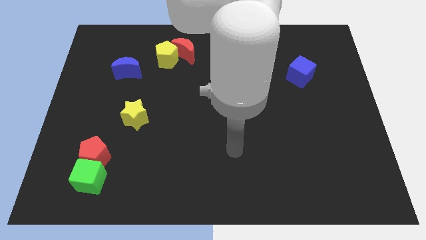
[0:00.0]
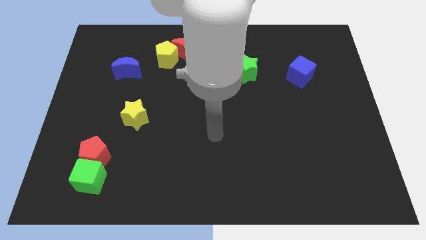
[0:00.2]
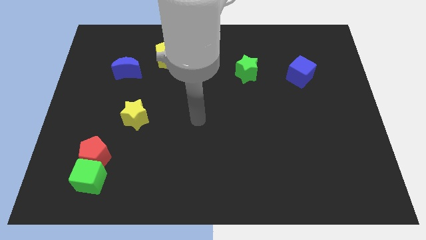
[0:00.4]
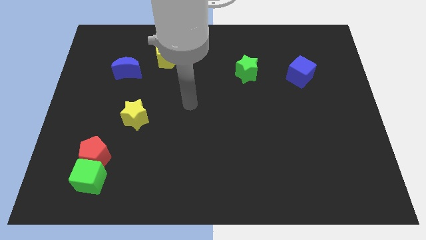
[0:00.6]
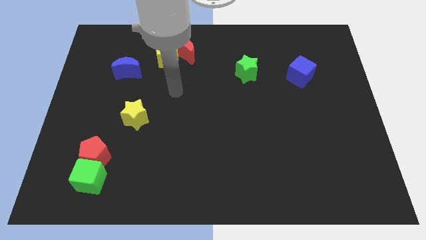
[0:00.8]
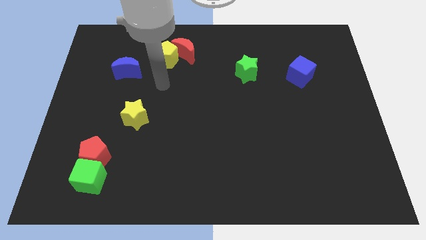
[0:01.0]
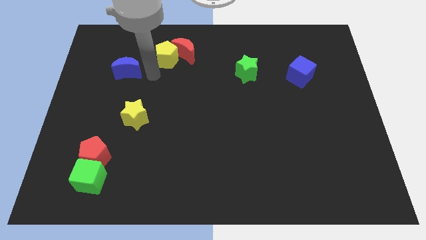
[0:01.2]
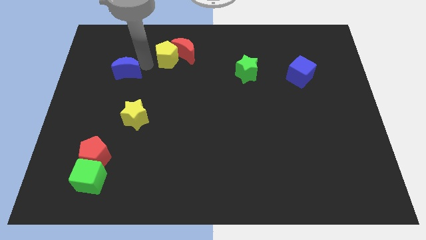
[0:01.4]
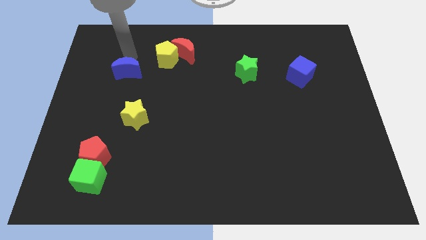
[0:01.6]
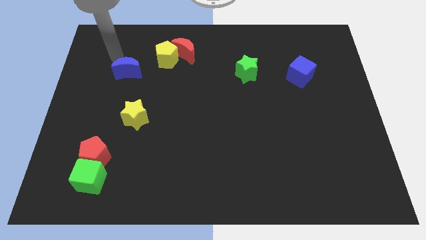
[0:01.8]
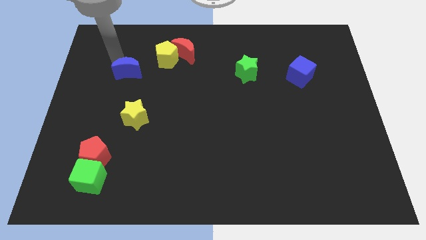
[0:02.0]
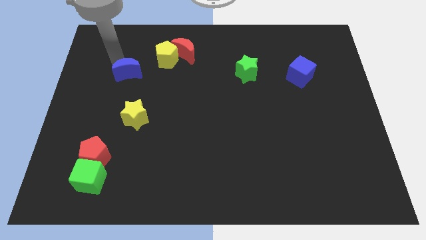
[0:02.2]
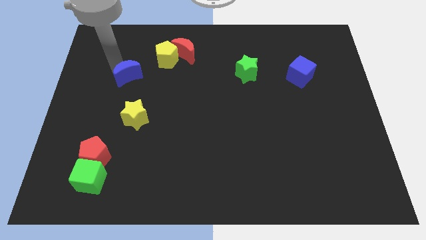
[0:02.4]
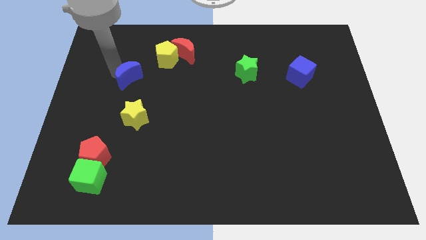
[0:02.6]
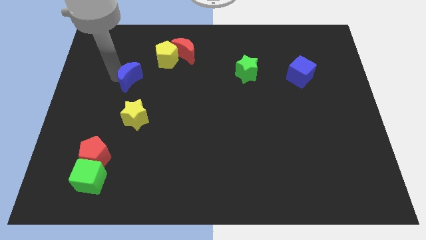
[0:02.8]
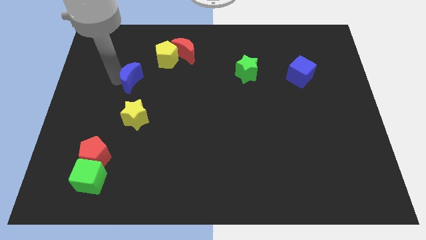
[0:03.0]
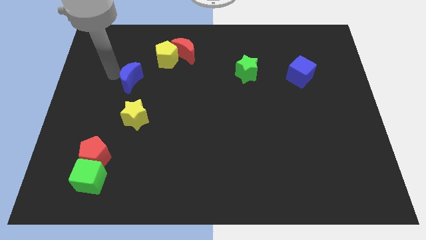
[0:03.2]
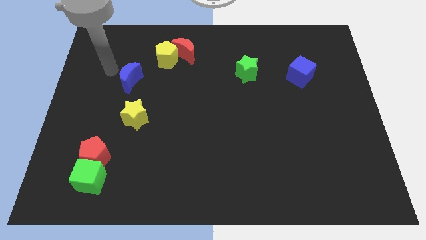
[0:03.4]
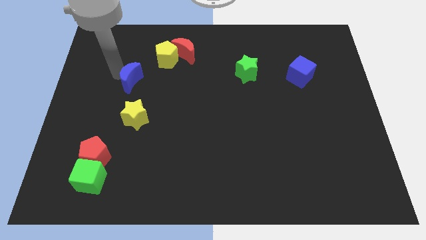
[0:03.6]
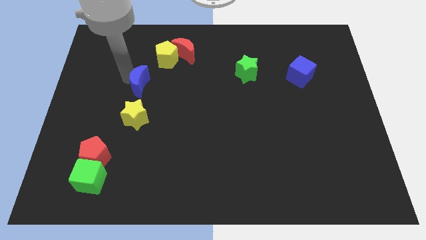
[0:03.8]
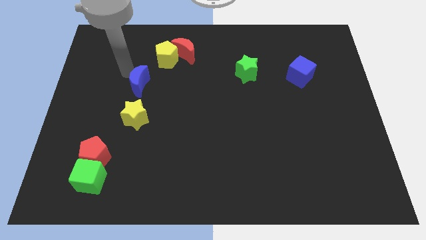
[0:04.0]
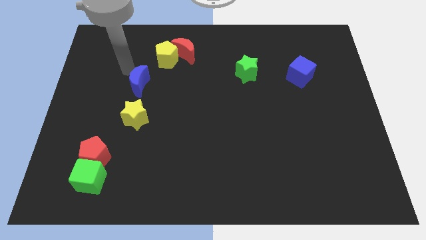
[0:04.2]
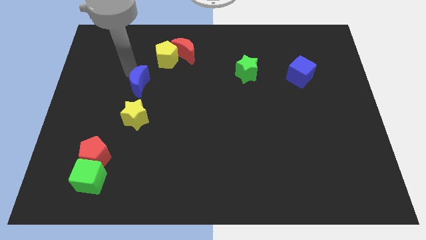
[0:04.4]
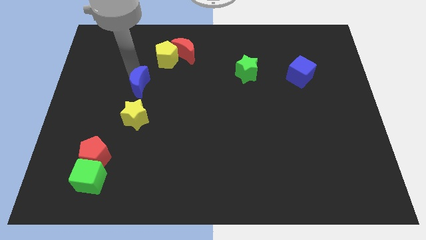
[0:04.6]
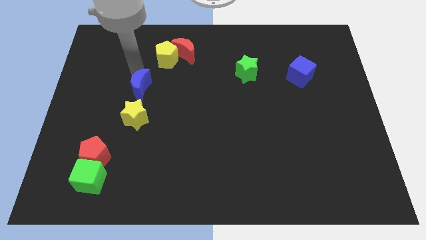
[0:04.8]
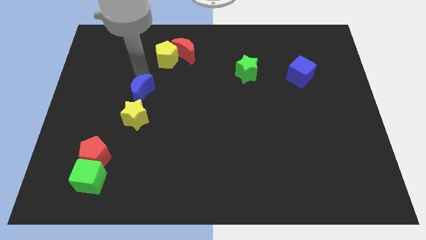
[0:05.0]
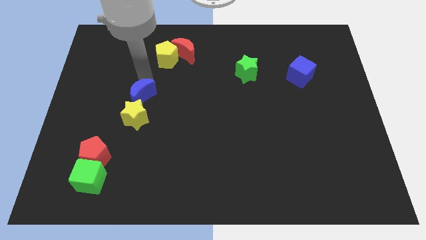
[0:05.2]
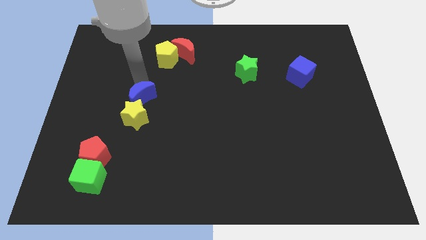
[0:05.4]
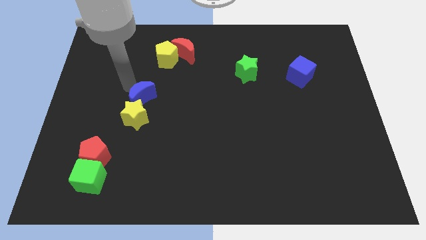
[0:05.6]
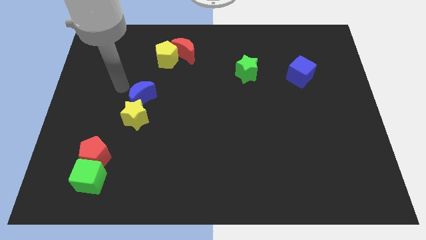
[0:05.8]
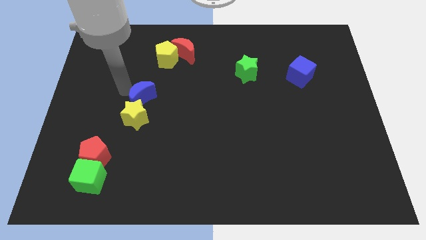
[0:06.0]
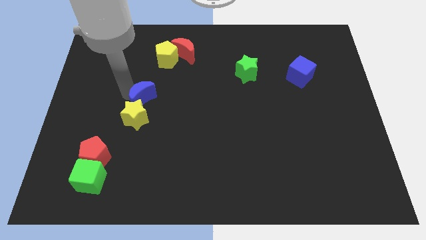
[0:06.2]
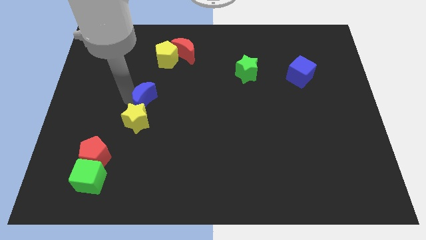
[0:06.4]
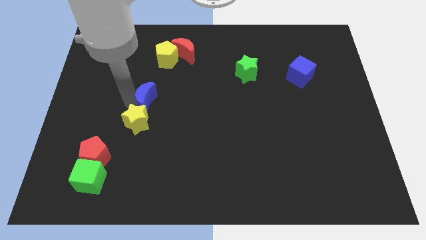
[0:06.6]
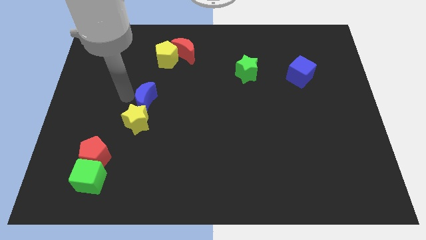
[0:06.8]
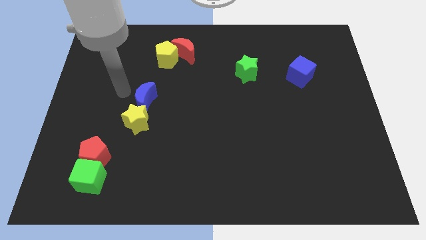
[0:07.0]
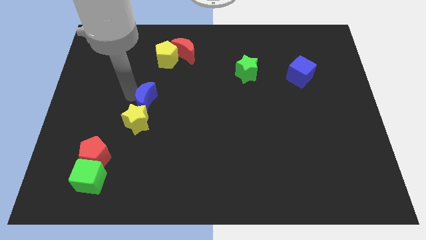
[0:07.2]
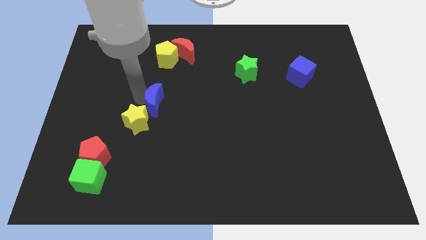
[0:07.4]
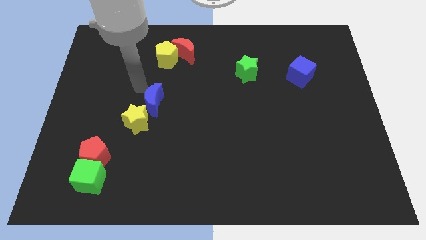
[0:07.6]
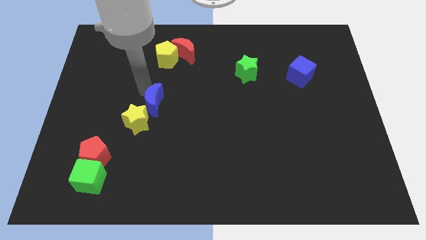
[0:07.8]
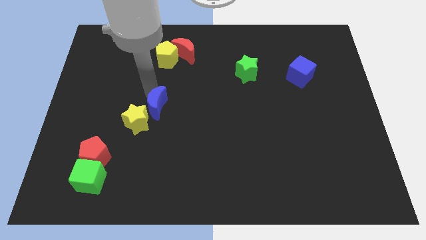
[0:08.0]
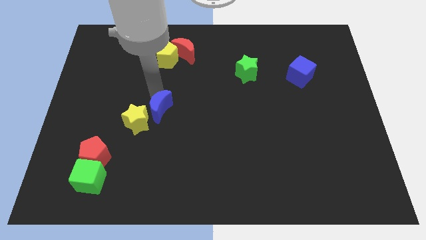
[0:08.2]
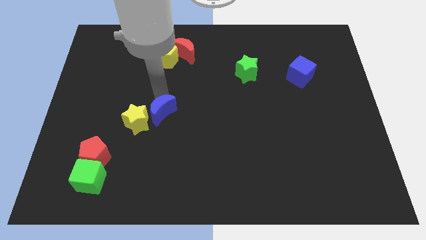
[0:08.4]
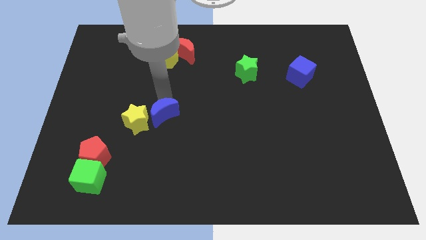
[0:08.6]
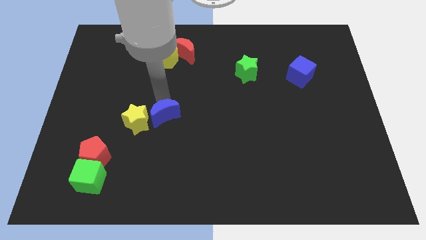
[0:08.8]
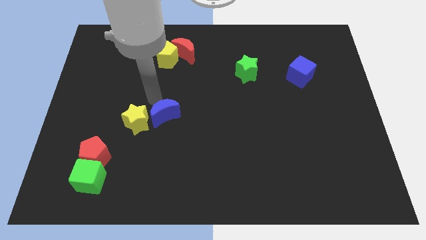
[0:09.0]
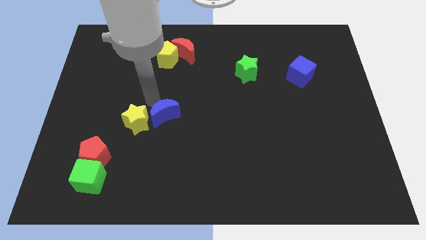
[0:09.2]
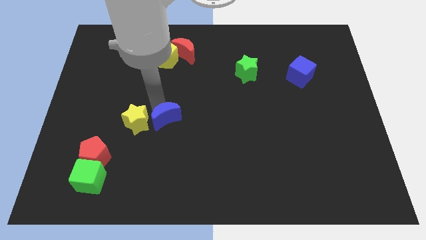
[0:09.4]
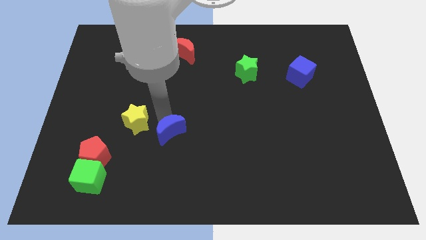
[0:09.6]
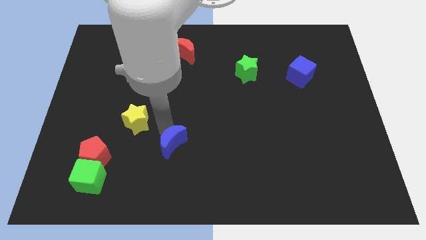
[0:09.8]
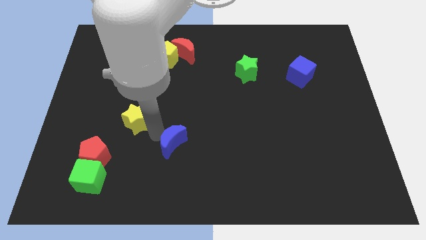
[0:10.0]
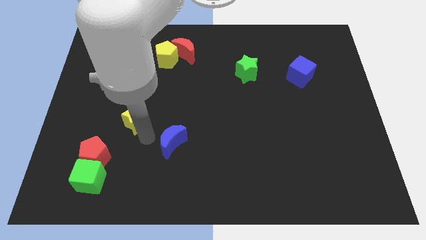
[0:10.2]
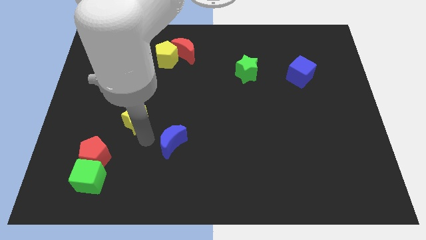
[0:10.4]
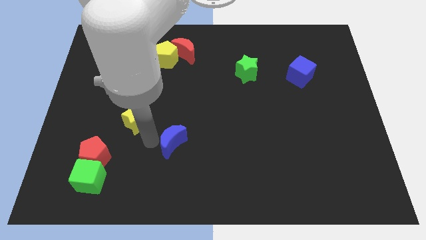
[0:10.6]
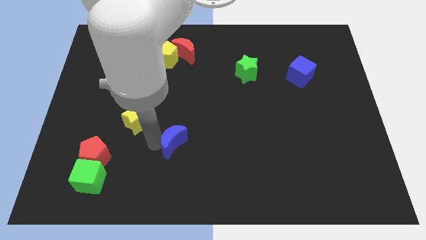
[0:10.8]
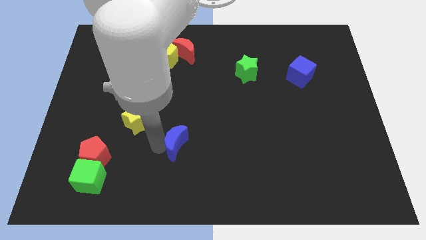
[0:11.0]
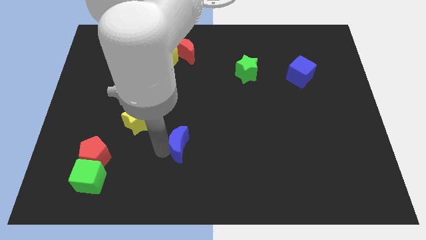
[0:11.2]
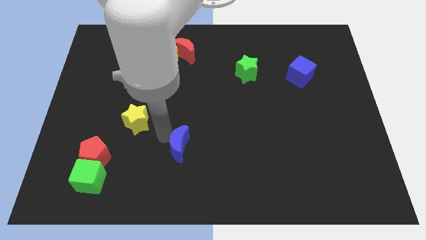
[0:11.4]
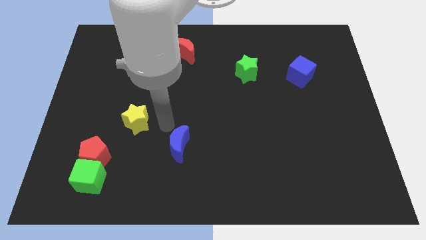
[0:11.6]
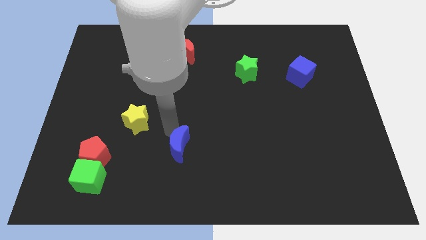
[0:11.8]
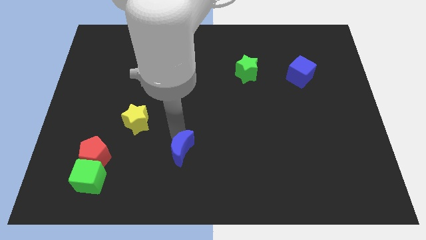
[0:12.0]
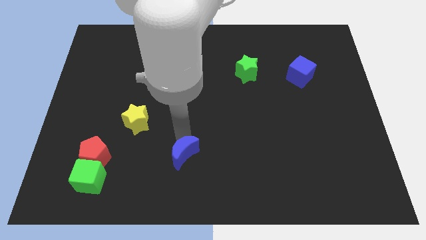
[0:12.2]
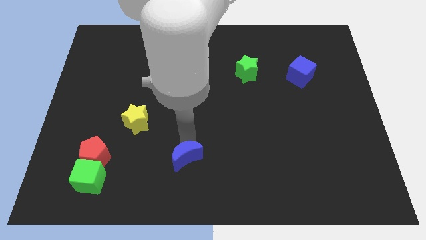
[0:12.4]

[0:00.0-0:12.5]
move the blue moon to the bottom
